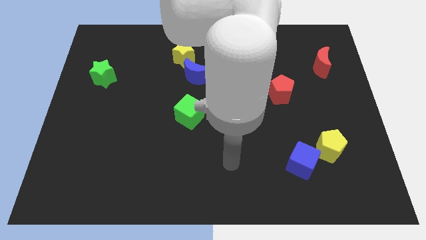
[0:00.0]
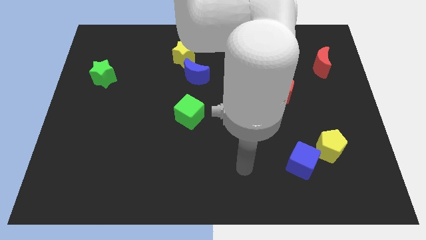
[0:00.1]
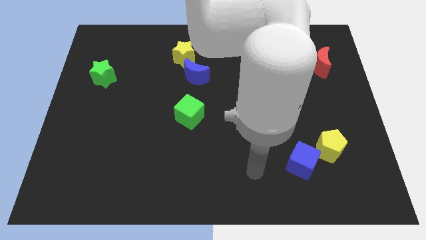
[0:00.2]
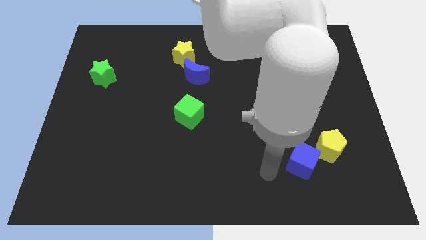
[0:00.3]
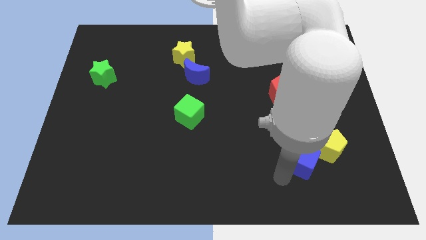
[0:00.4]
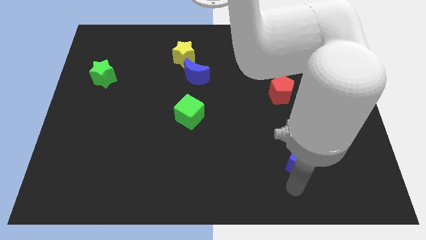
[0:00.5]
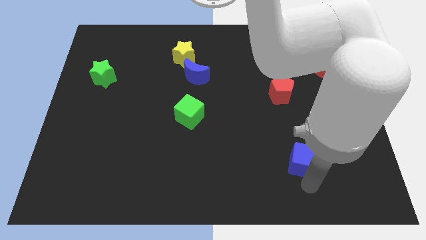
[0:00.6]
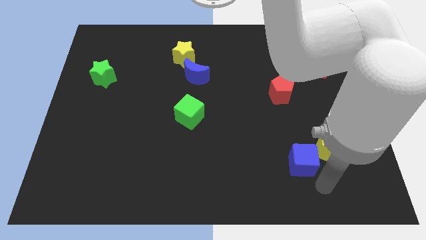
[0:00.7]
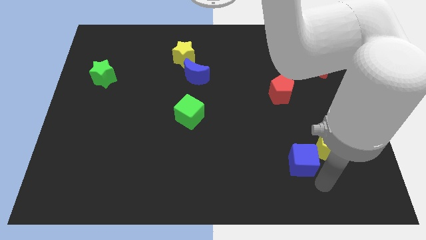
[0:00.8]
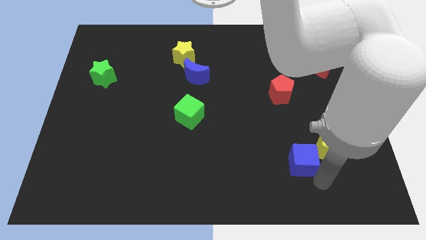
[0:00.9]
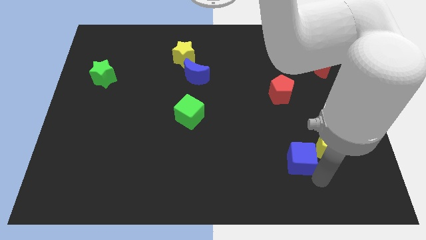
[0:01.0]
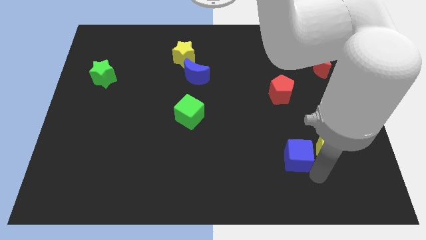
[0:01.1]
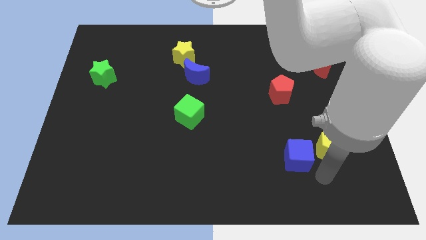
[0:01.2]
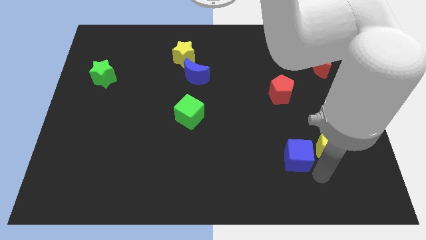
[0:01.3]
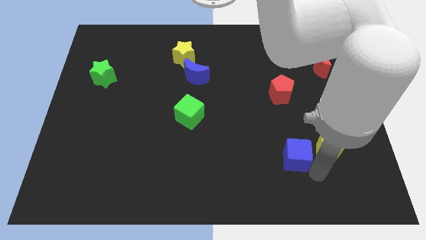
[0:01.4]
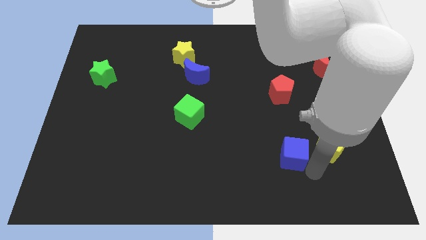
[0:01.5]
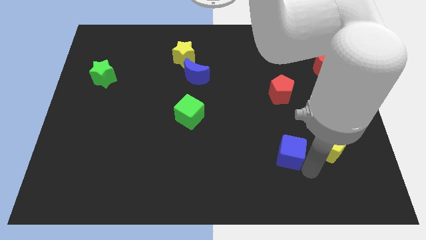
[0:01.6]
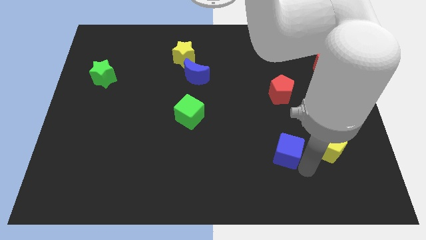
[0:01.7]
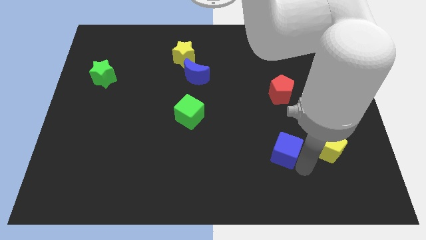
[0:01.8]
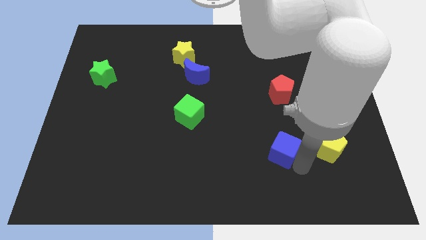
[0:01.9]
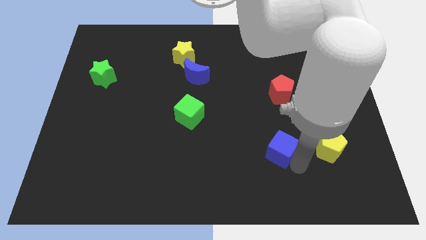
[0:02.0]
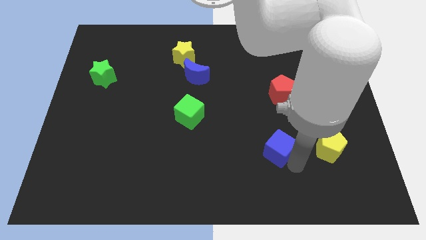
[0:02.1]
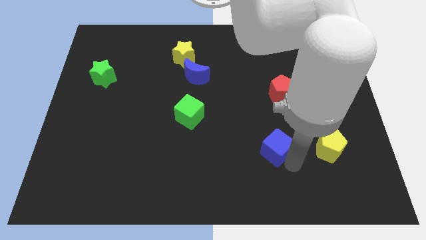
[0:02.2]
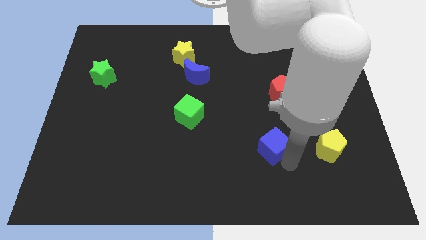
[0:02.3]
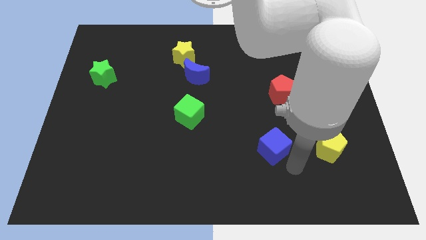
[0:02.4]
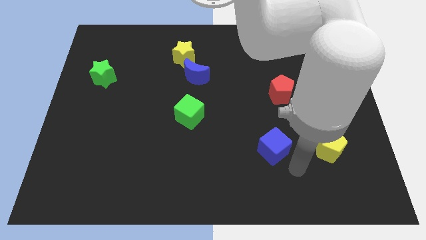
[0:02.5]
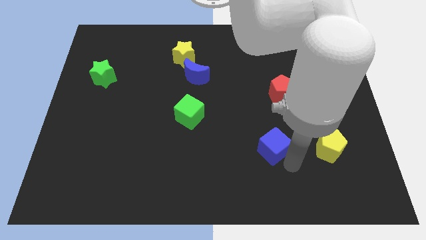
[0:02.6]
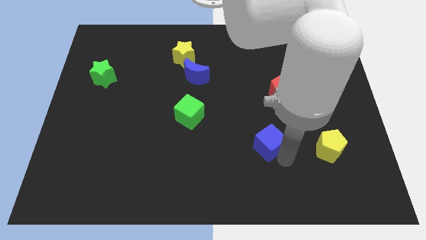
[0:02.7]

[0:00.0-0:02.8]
slightly move the blue cube diagonally upwards and to the left

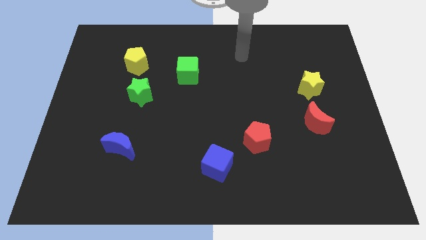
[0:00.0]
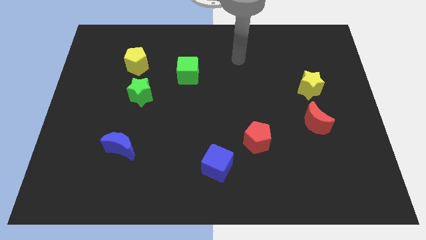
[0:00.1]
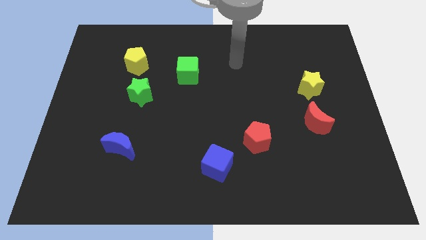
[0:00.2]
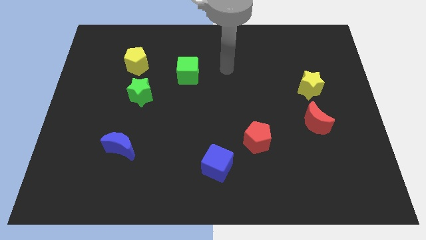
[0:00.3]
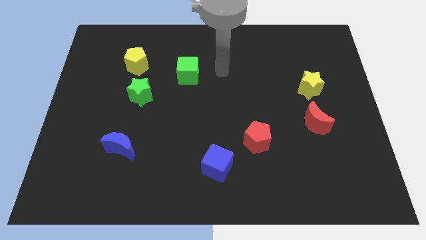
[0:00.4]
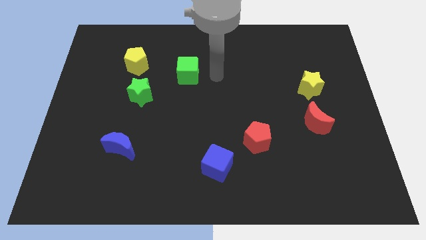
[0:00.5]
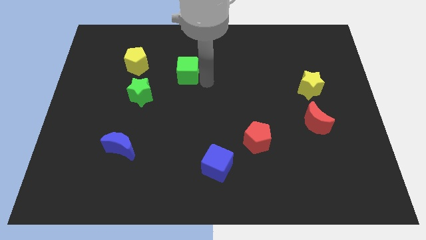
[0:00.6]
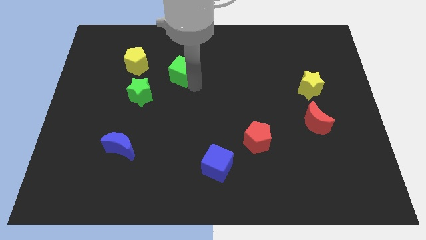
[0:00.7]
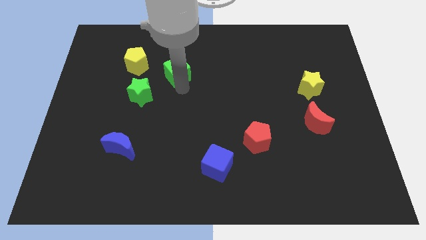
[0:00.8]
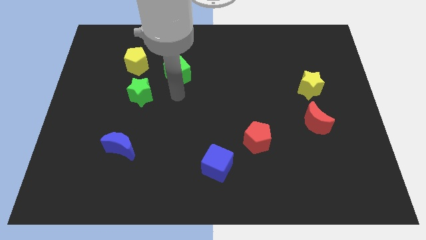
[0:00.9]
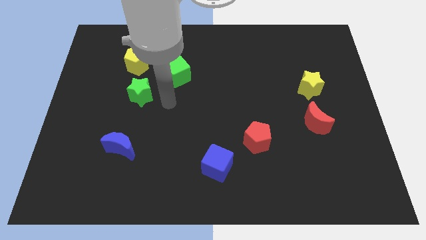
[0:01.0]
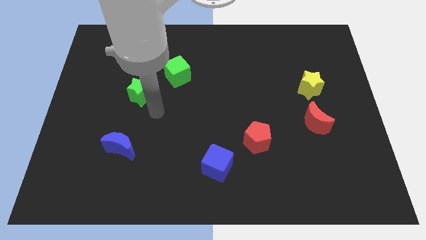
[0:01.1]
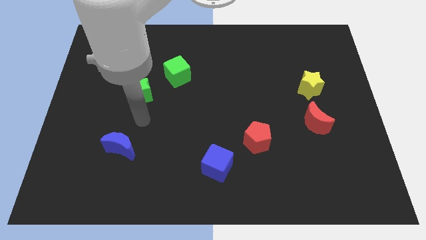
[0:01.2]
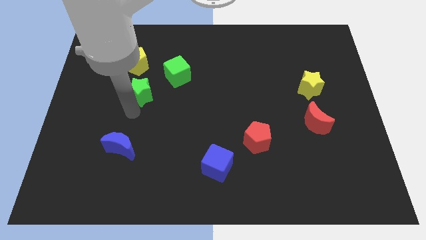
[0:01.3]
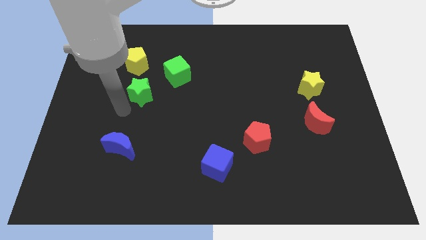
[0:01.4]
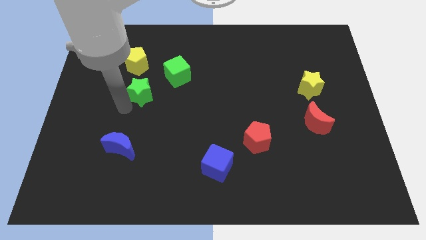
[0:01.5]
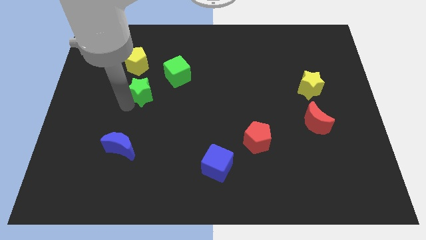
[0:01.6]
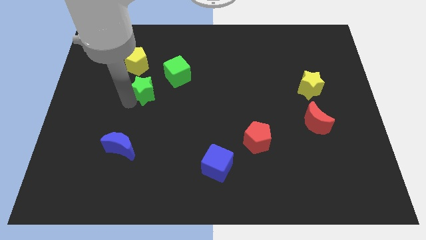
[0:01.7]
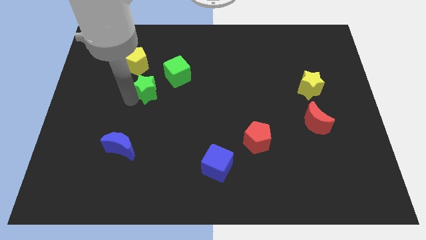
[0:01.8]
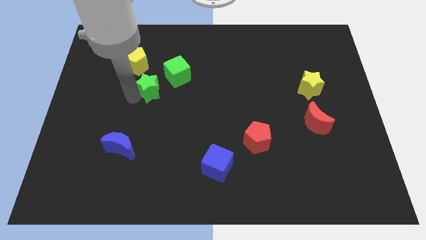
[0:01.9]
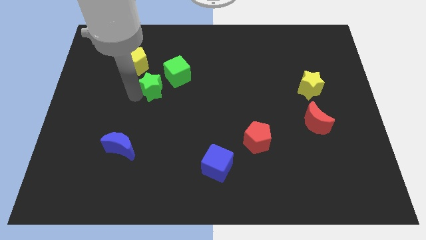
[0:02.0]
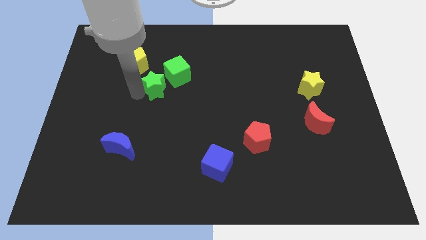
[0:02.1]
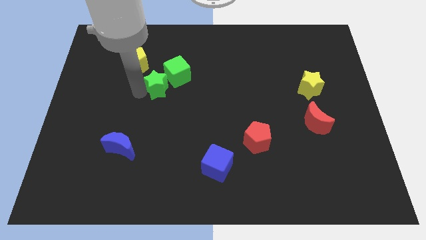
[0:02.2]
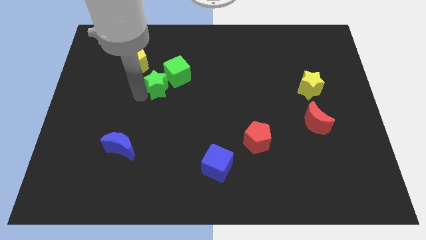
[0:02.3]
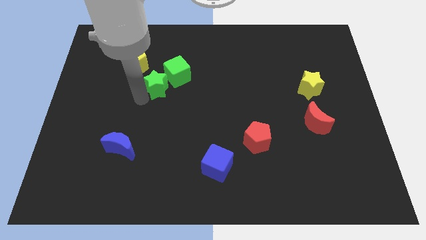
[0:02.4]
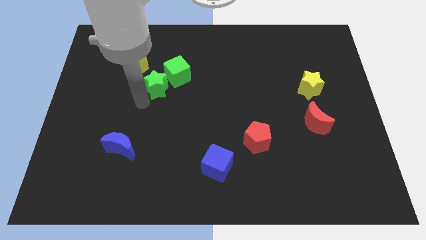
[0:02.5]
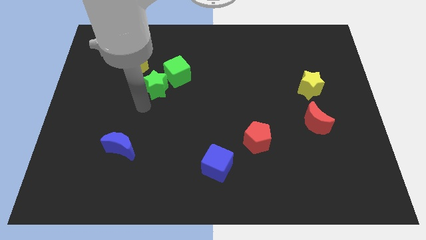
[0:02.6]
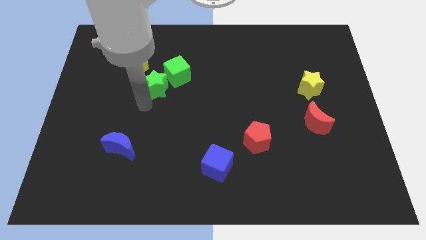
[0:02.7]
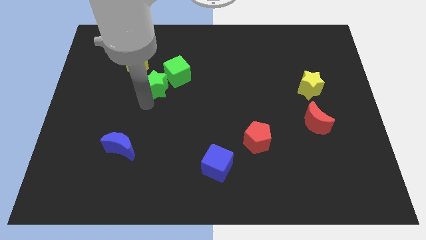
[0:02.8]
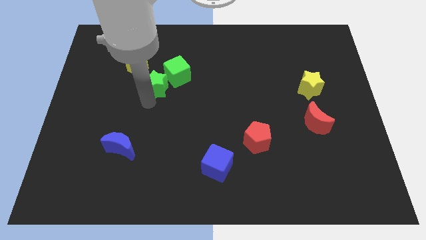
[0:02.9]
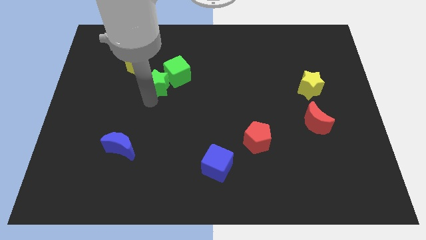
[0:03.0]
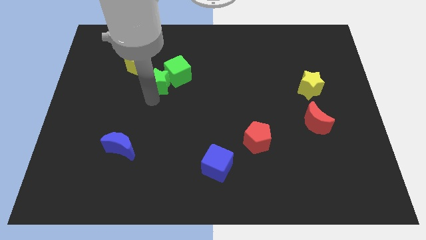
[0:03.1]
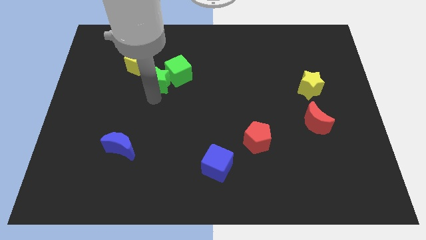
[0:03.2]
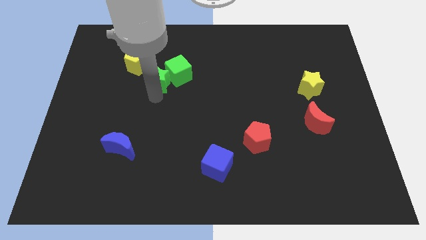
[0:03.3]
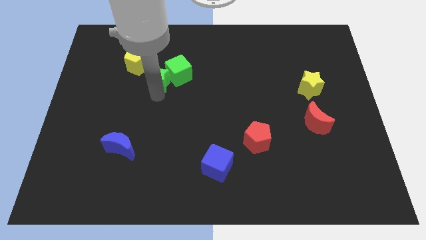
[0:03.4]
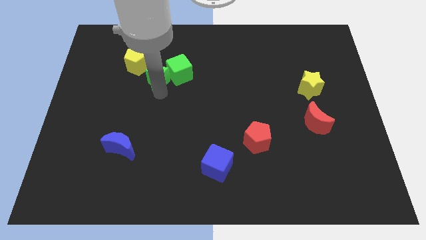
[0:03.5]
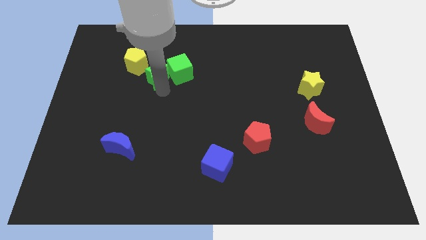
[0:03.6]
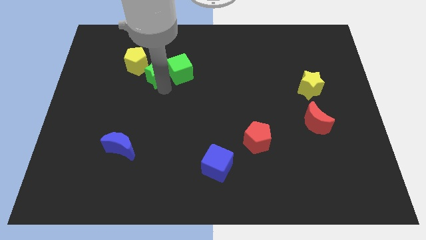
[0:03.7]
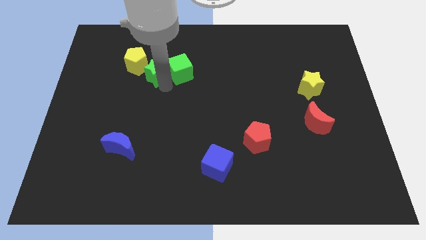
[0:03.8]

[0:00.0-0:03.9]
slightly slide the green star upwards and right diagonally

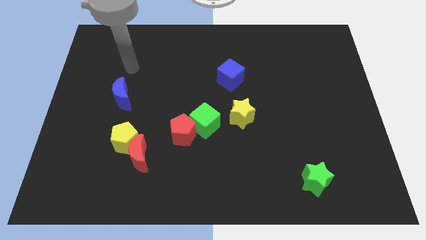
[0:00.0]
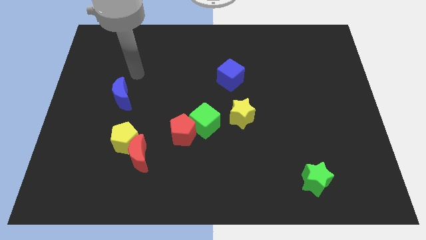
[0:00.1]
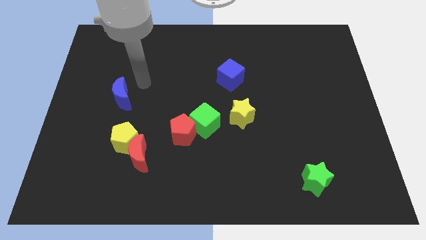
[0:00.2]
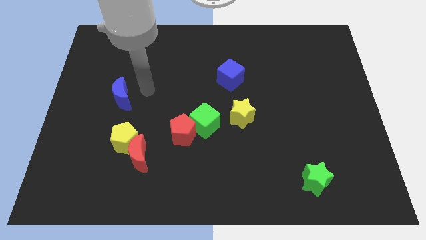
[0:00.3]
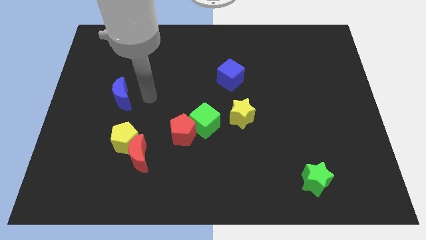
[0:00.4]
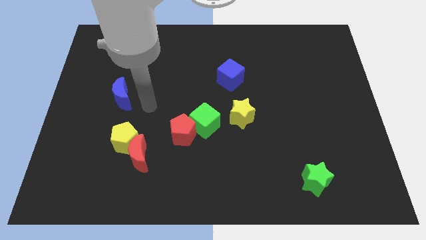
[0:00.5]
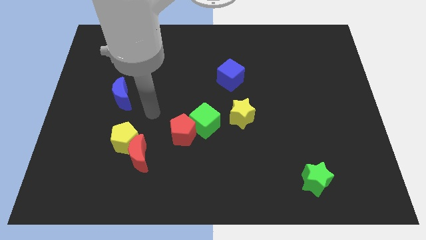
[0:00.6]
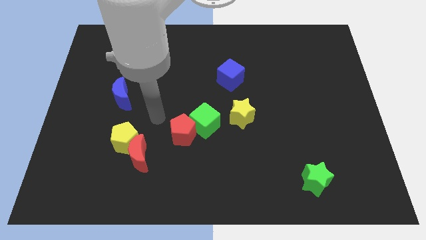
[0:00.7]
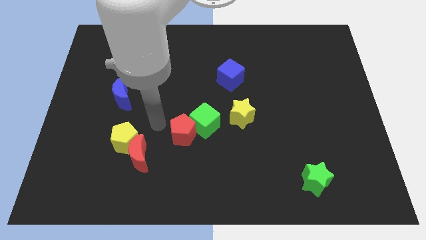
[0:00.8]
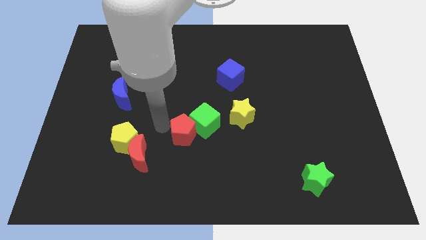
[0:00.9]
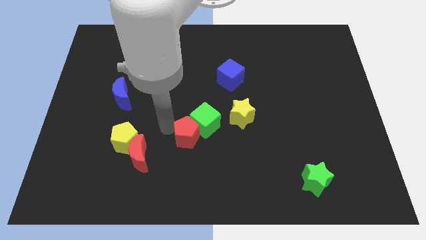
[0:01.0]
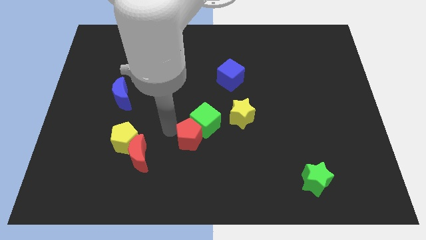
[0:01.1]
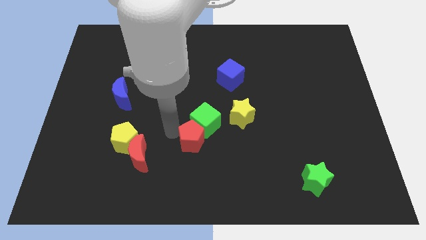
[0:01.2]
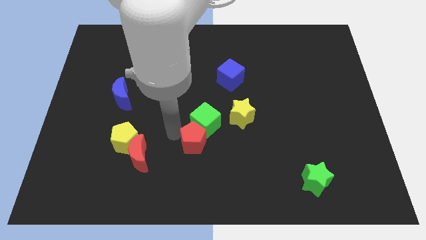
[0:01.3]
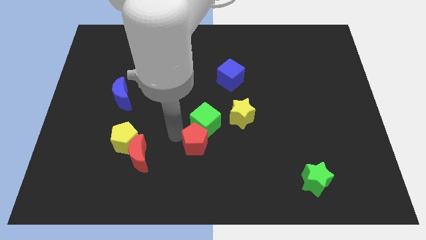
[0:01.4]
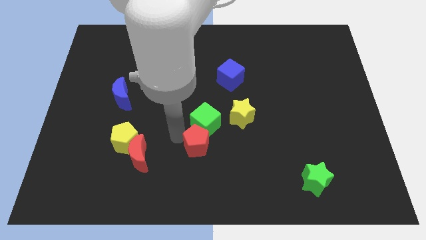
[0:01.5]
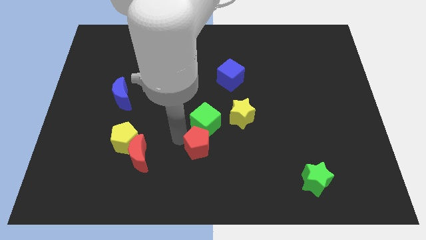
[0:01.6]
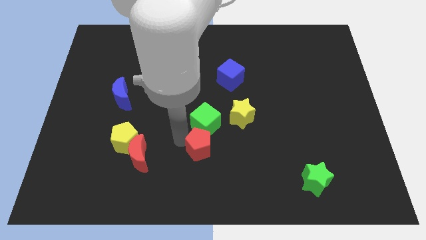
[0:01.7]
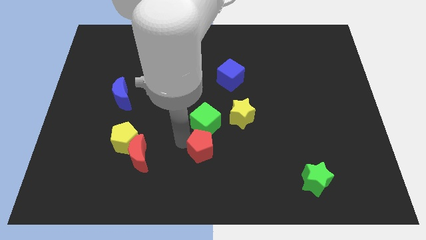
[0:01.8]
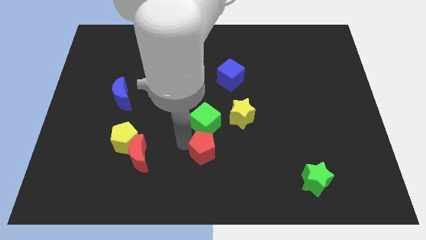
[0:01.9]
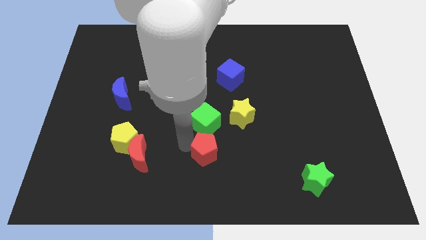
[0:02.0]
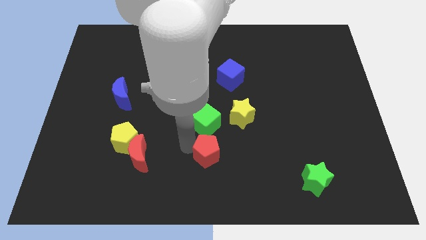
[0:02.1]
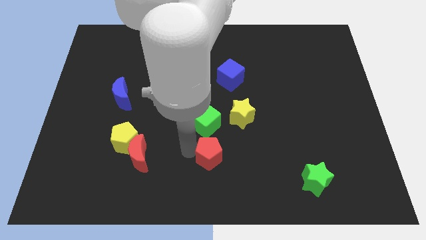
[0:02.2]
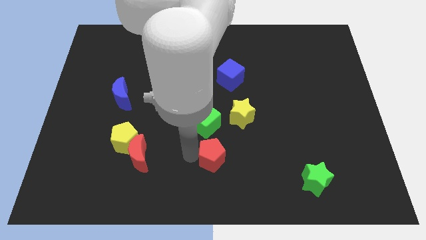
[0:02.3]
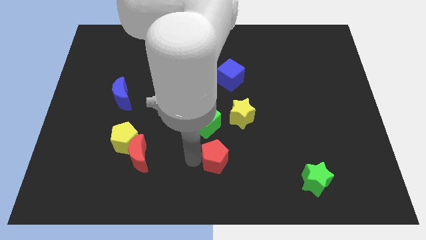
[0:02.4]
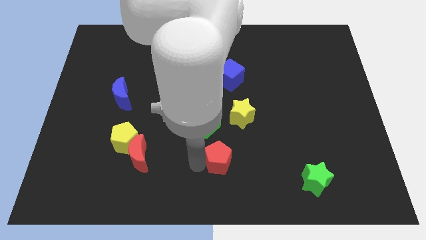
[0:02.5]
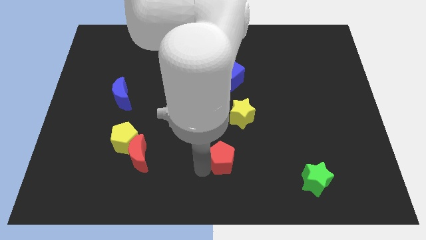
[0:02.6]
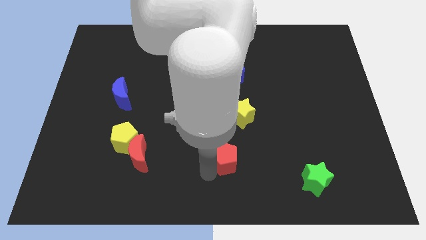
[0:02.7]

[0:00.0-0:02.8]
slightly move the red pentagon to the right
